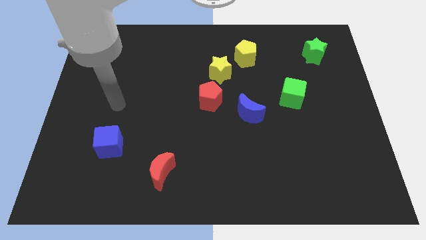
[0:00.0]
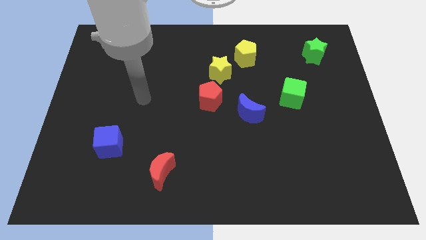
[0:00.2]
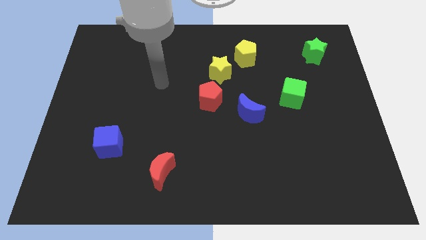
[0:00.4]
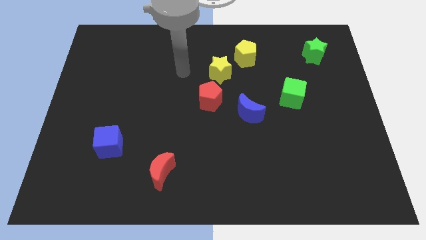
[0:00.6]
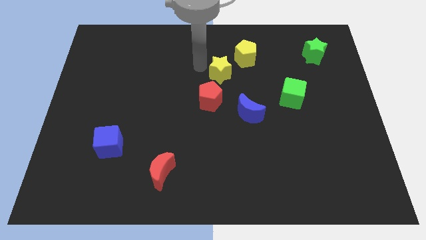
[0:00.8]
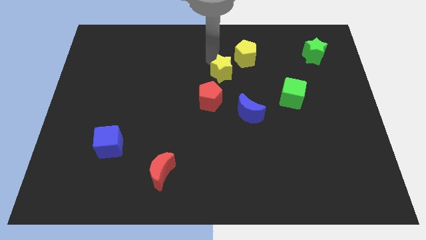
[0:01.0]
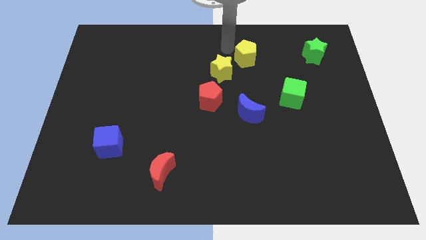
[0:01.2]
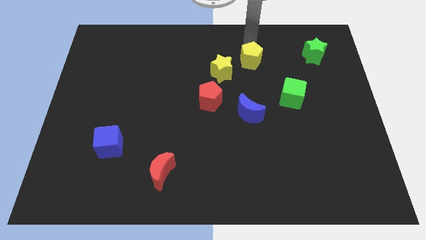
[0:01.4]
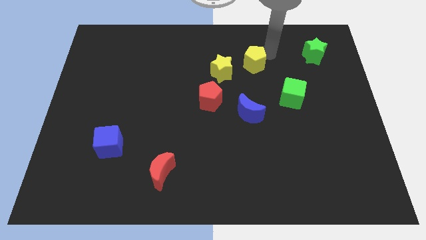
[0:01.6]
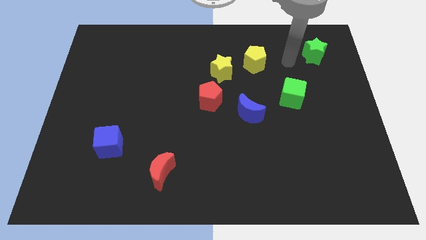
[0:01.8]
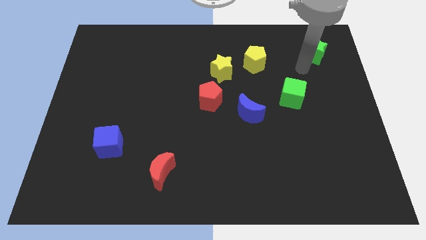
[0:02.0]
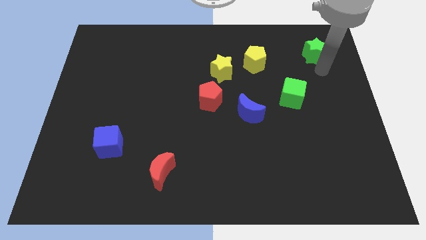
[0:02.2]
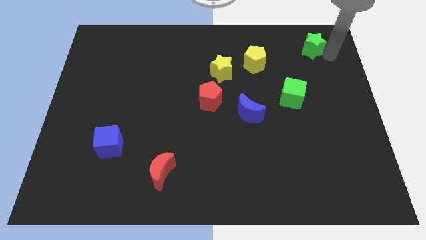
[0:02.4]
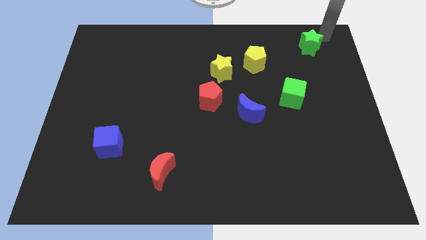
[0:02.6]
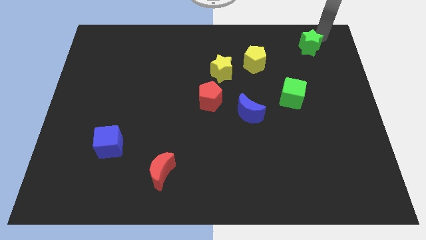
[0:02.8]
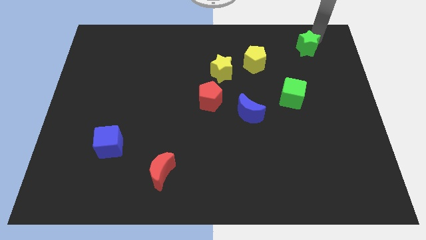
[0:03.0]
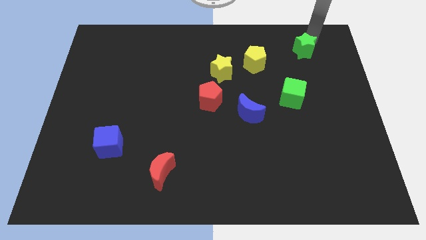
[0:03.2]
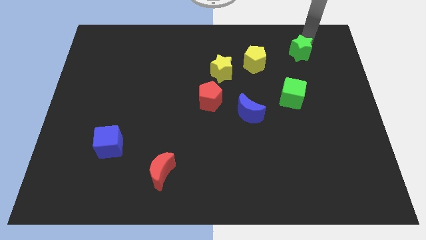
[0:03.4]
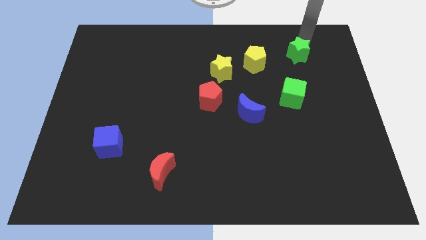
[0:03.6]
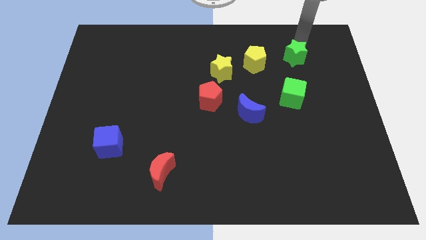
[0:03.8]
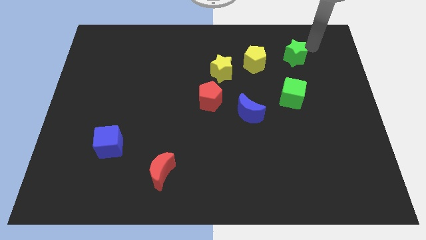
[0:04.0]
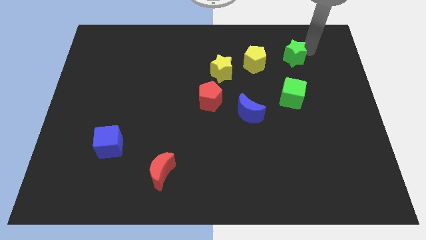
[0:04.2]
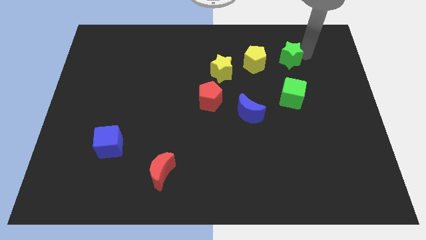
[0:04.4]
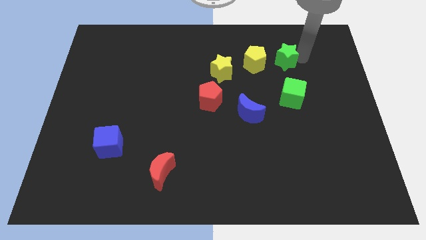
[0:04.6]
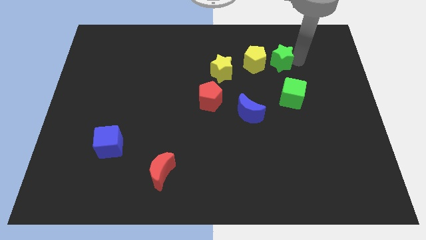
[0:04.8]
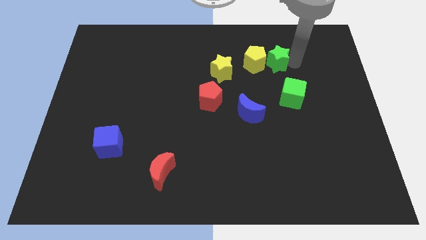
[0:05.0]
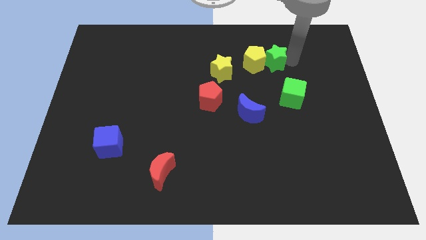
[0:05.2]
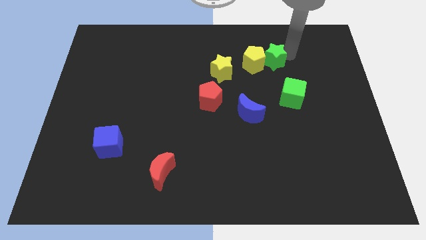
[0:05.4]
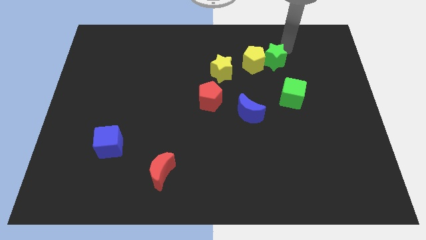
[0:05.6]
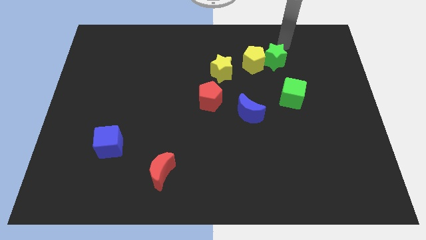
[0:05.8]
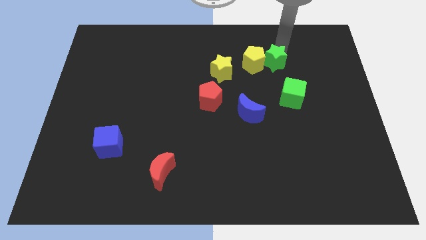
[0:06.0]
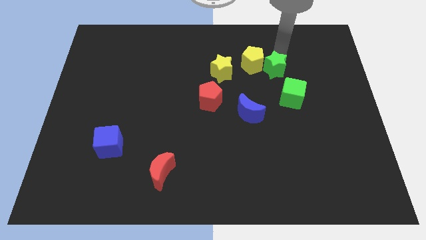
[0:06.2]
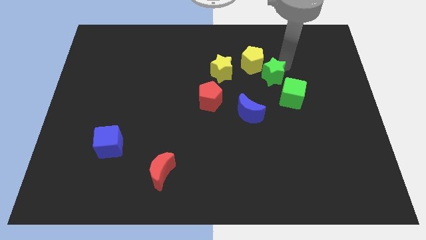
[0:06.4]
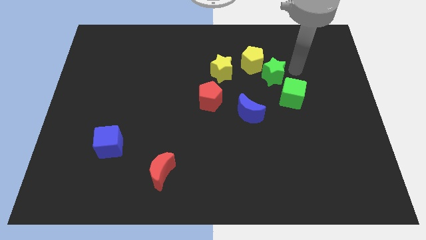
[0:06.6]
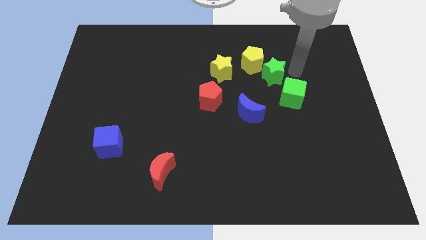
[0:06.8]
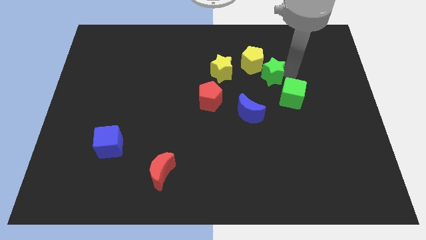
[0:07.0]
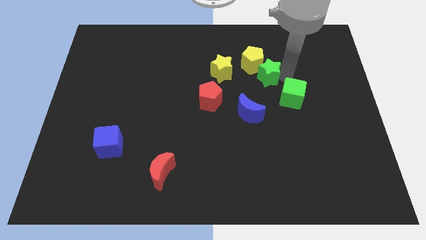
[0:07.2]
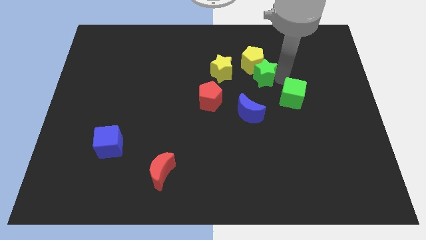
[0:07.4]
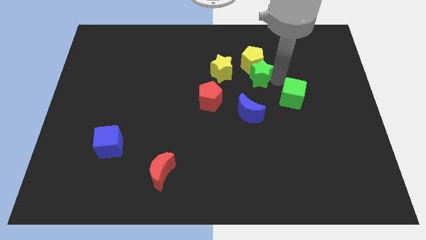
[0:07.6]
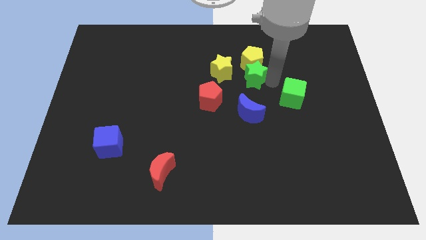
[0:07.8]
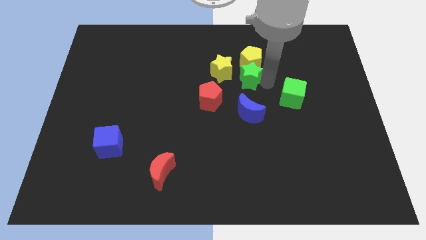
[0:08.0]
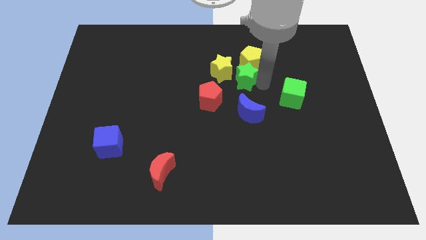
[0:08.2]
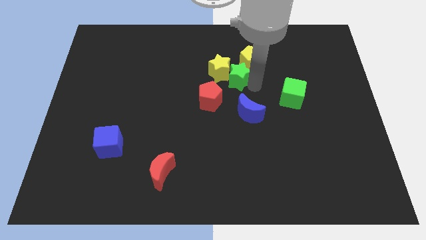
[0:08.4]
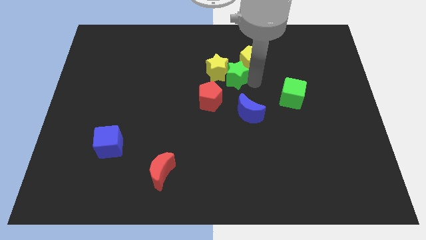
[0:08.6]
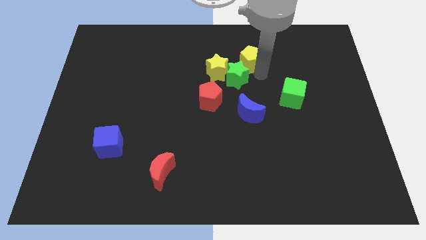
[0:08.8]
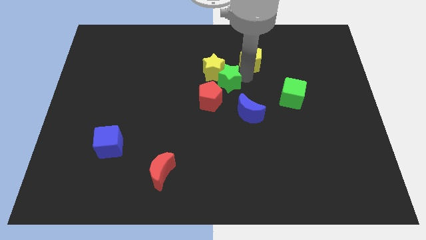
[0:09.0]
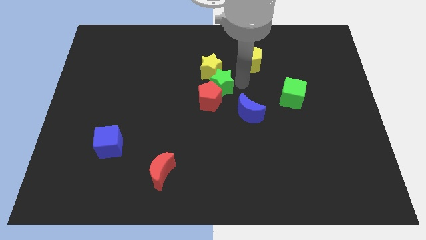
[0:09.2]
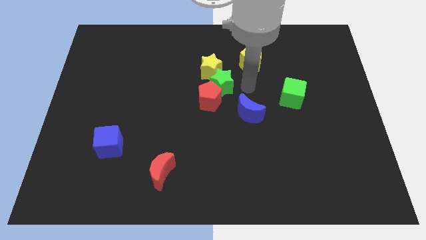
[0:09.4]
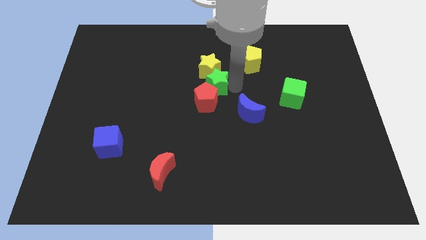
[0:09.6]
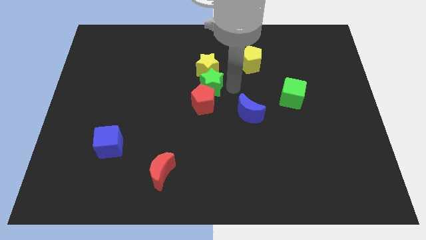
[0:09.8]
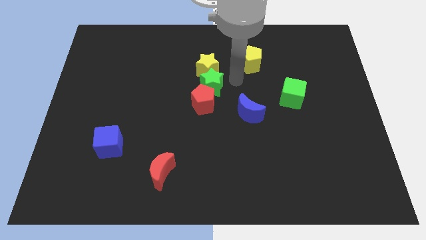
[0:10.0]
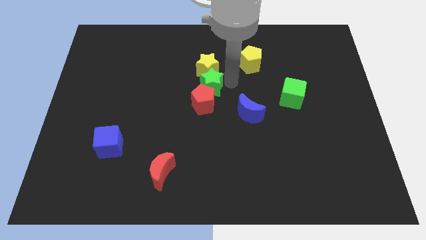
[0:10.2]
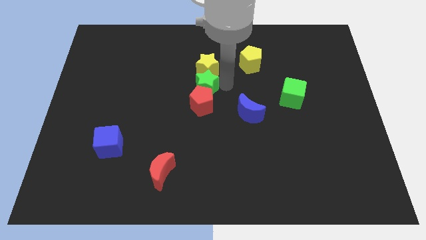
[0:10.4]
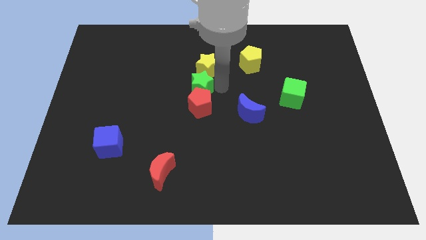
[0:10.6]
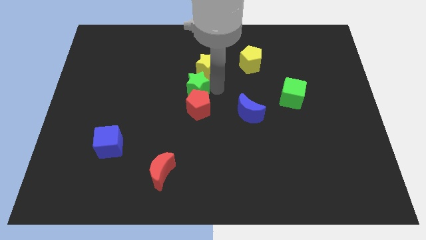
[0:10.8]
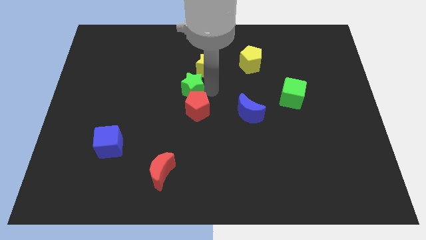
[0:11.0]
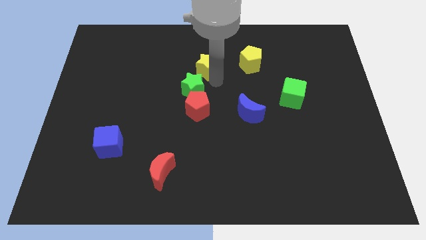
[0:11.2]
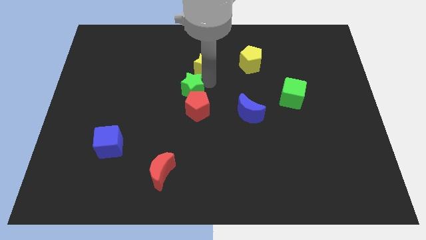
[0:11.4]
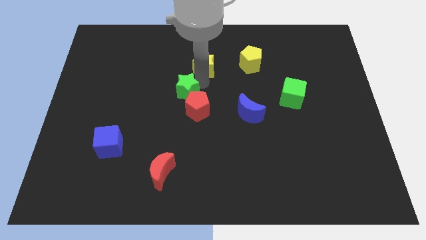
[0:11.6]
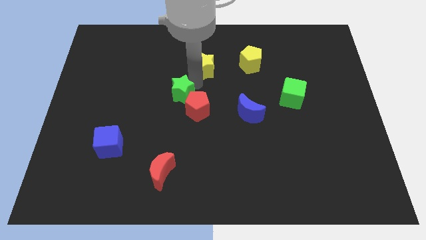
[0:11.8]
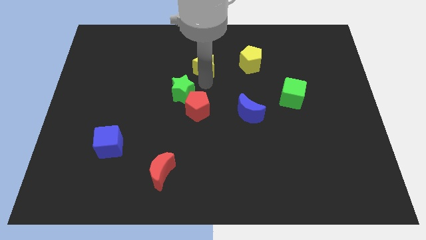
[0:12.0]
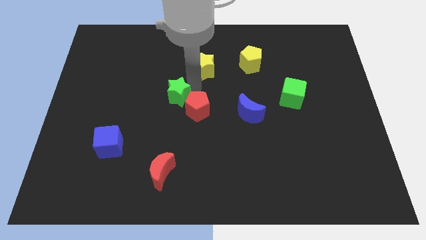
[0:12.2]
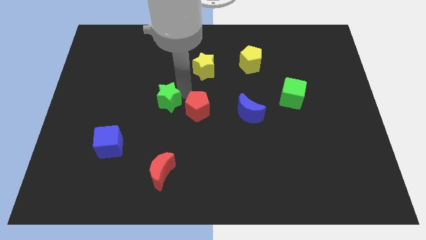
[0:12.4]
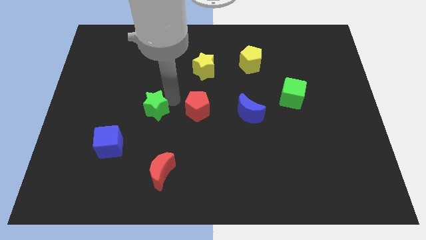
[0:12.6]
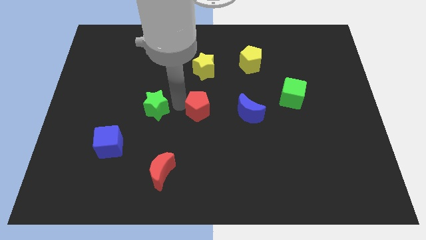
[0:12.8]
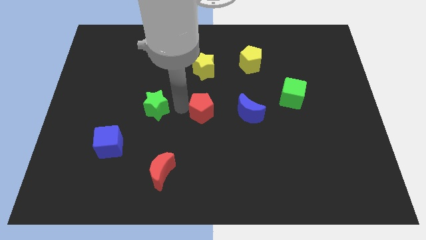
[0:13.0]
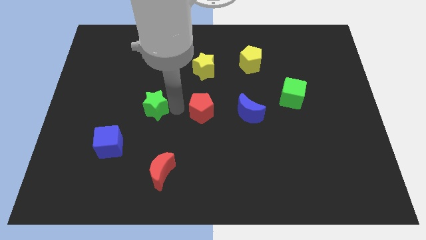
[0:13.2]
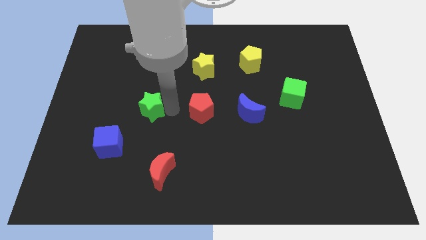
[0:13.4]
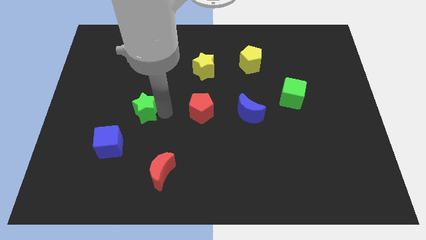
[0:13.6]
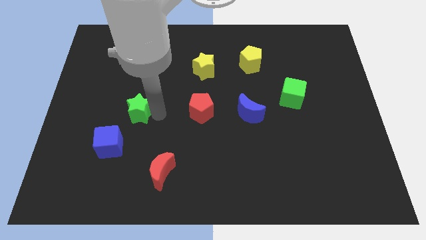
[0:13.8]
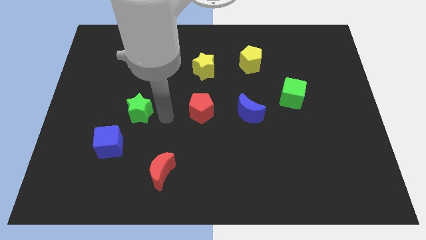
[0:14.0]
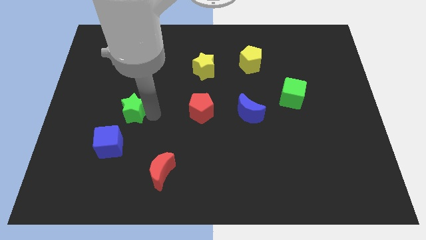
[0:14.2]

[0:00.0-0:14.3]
push the green star to the top side of the blue cube
